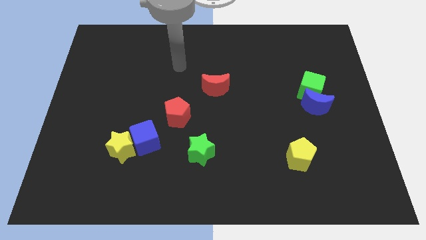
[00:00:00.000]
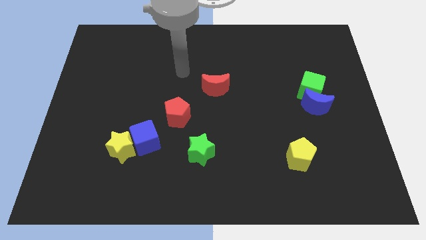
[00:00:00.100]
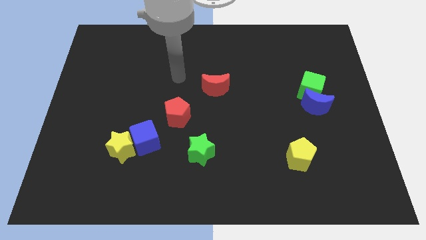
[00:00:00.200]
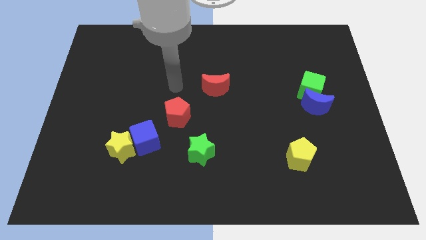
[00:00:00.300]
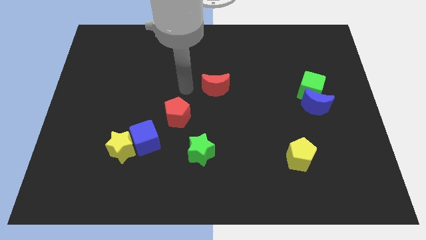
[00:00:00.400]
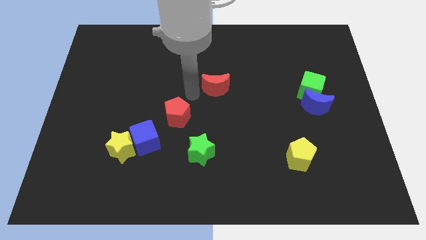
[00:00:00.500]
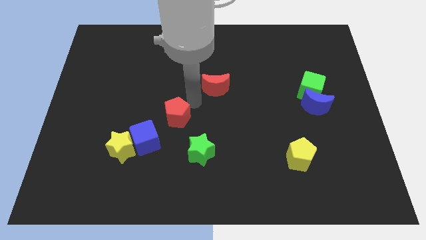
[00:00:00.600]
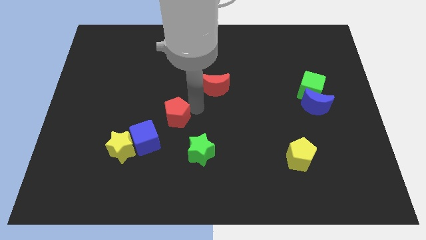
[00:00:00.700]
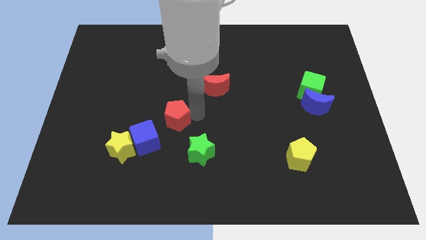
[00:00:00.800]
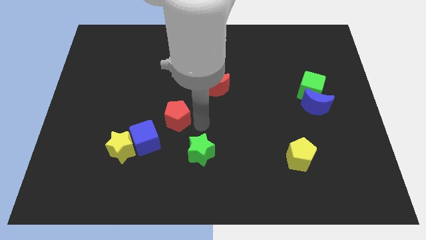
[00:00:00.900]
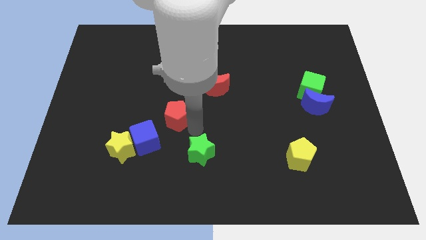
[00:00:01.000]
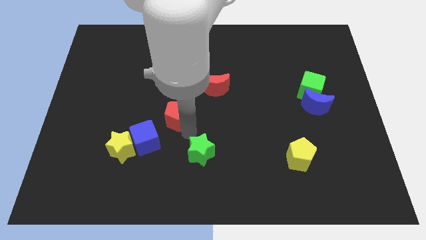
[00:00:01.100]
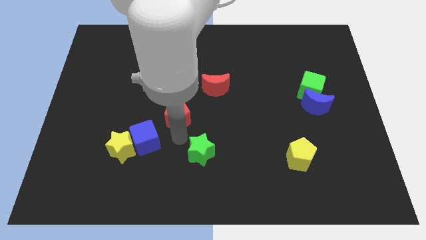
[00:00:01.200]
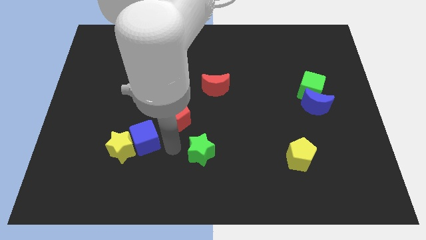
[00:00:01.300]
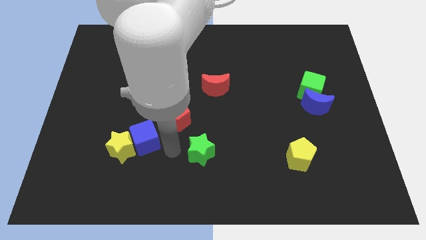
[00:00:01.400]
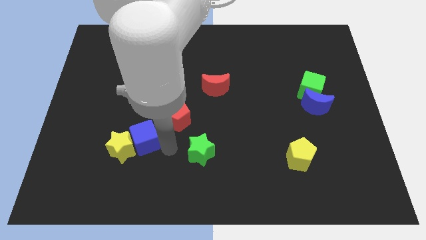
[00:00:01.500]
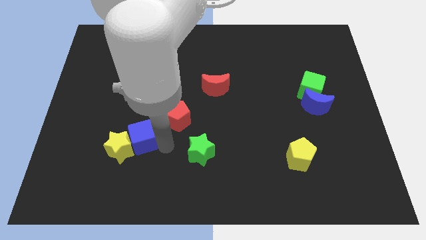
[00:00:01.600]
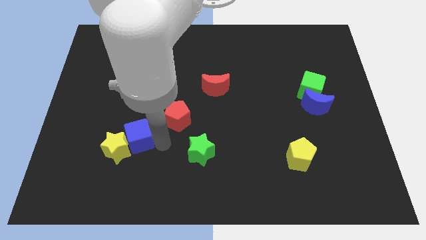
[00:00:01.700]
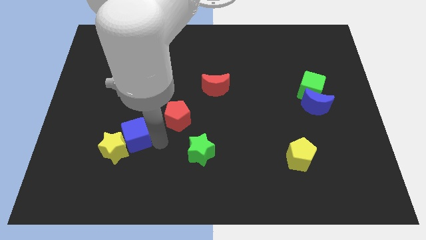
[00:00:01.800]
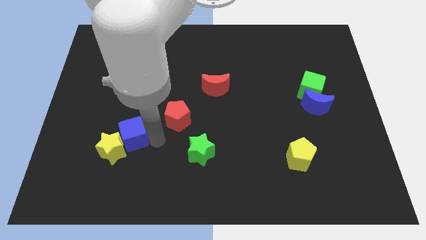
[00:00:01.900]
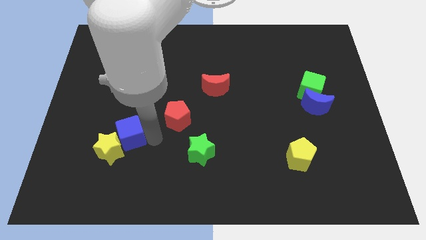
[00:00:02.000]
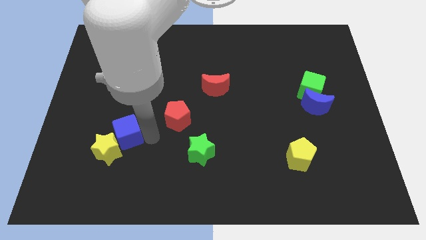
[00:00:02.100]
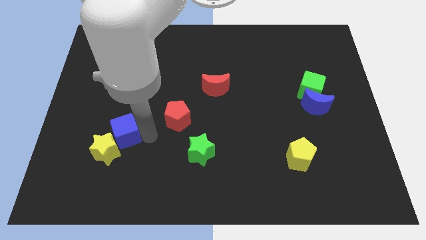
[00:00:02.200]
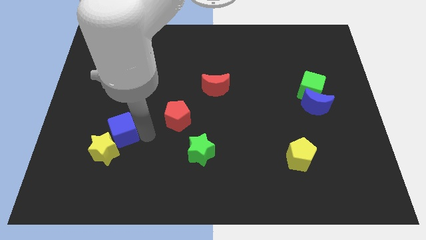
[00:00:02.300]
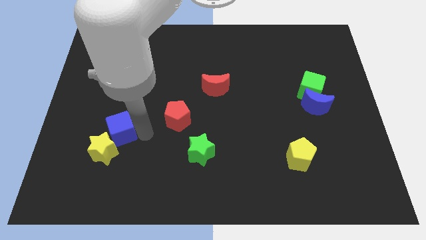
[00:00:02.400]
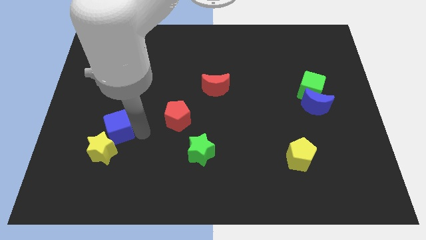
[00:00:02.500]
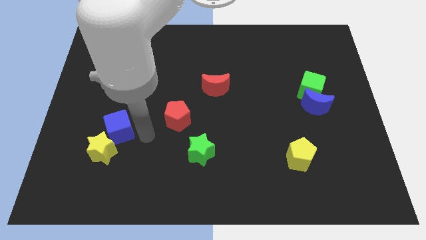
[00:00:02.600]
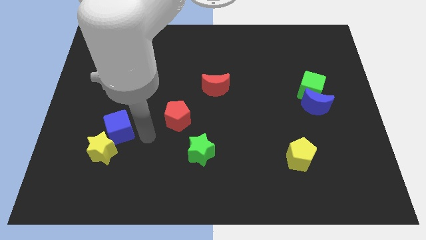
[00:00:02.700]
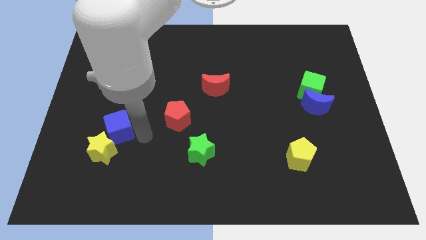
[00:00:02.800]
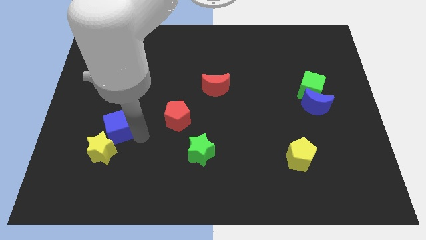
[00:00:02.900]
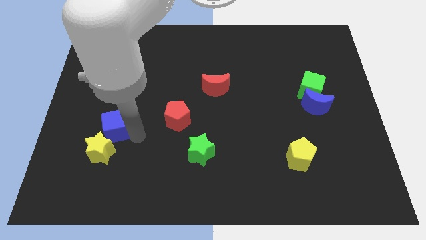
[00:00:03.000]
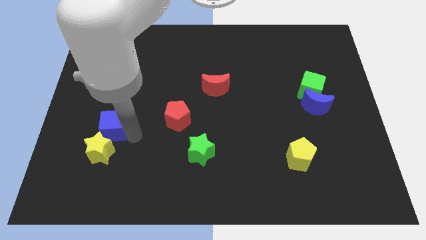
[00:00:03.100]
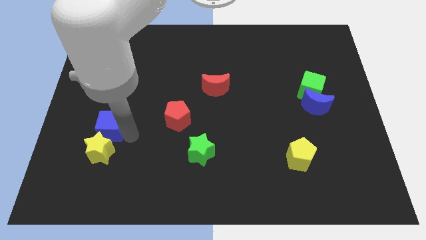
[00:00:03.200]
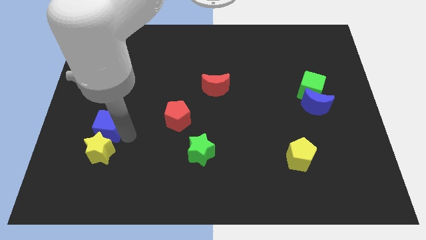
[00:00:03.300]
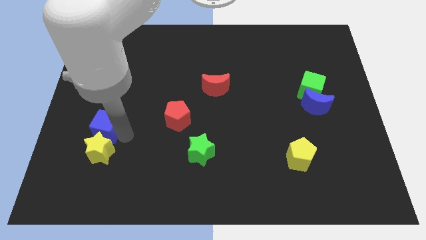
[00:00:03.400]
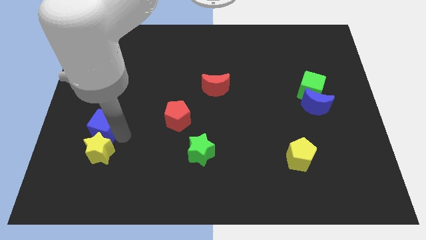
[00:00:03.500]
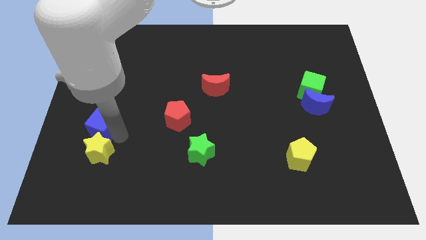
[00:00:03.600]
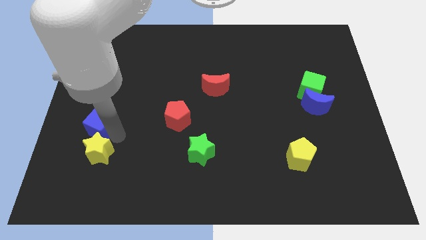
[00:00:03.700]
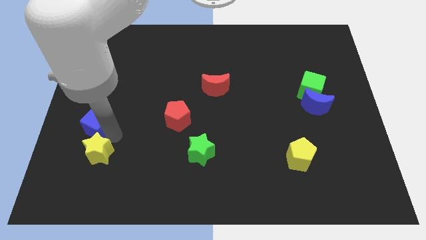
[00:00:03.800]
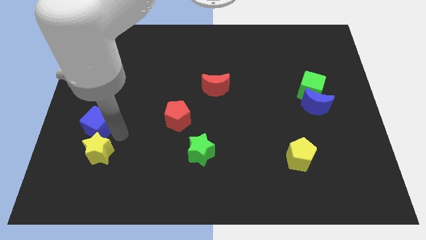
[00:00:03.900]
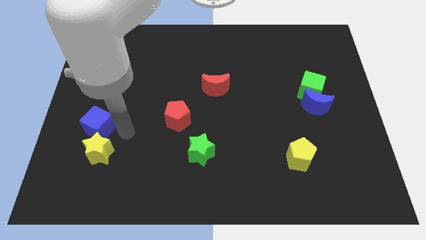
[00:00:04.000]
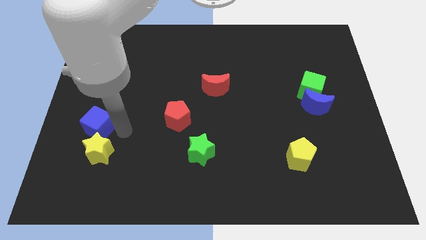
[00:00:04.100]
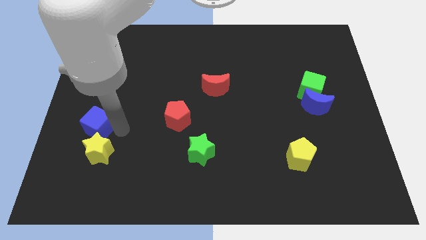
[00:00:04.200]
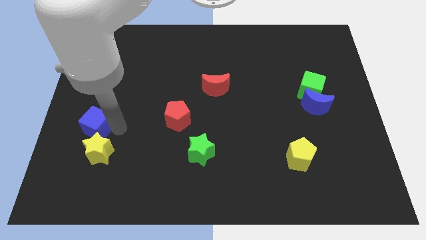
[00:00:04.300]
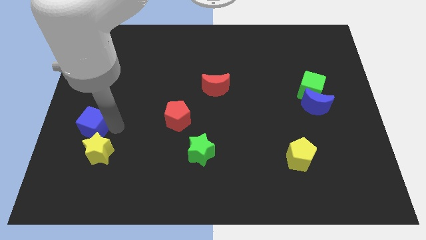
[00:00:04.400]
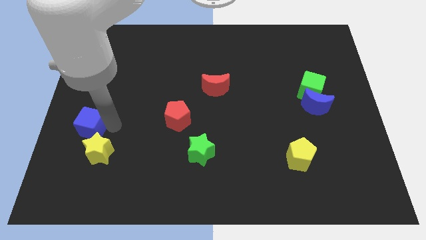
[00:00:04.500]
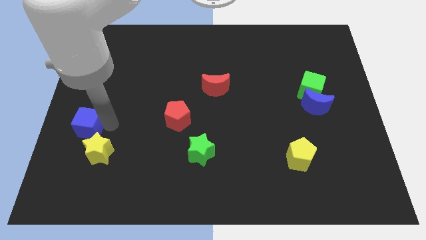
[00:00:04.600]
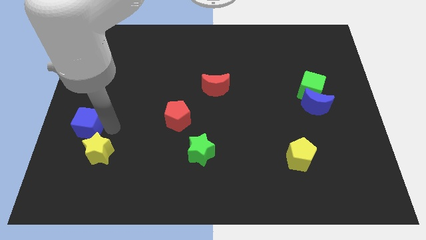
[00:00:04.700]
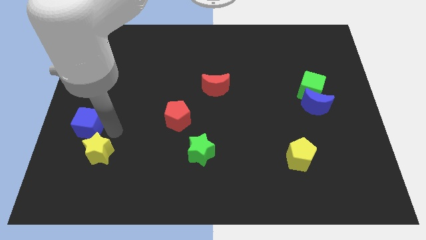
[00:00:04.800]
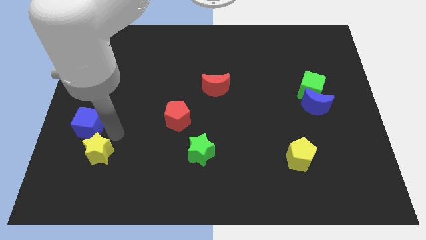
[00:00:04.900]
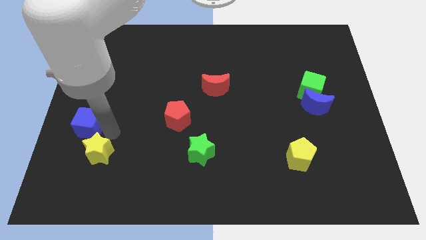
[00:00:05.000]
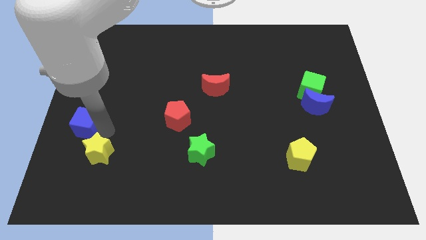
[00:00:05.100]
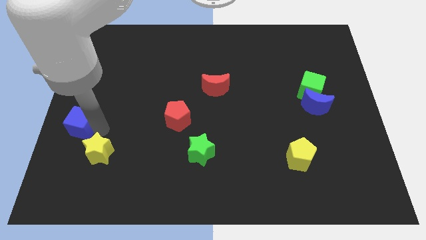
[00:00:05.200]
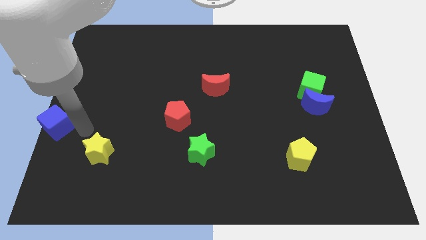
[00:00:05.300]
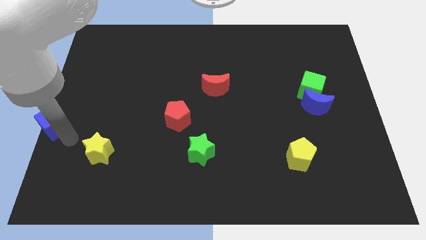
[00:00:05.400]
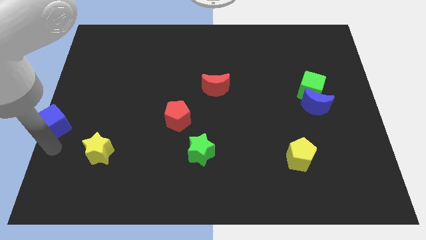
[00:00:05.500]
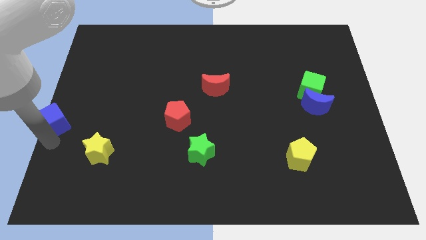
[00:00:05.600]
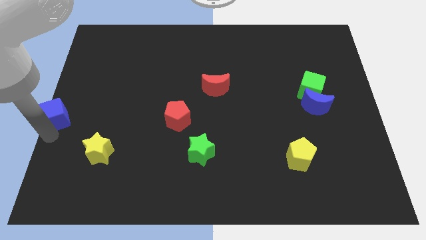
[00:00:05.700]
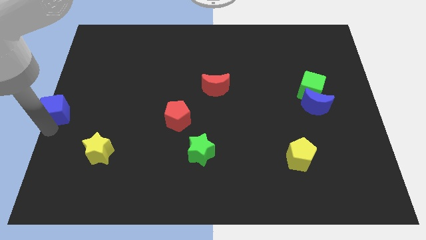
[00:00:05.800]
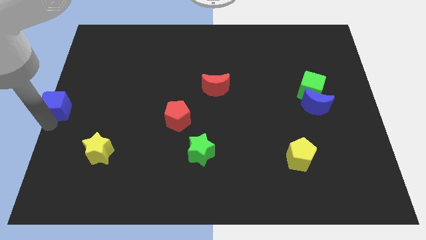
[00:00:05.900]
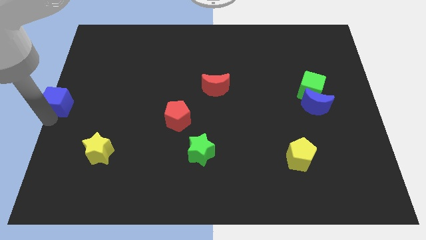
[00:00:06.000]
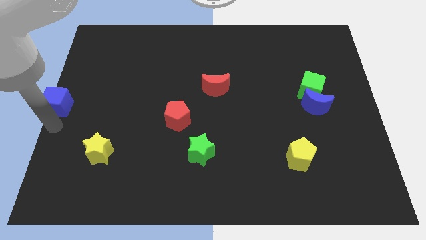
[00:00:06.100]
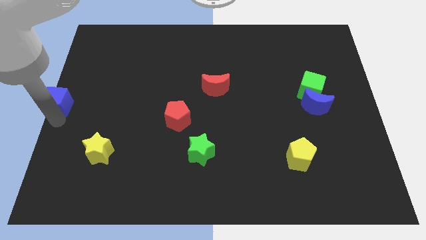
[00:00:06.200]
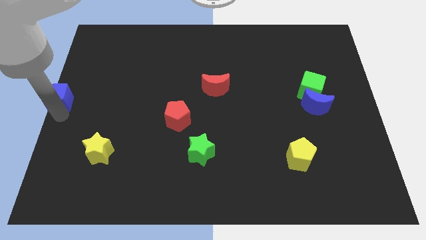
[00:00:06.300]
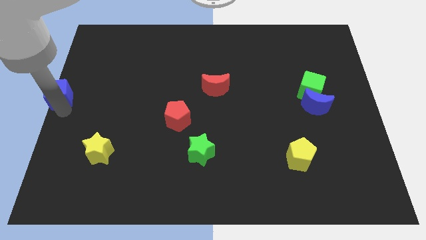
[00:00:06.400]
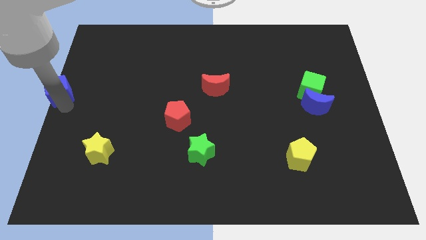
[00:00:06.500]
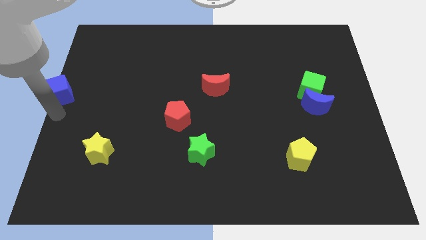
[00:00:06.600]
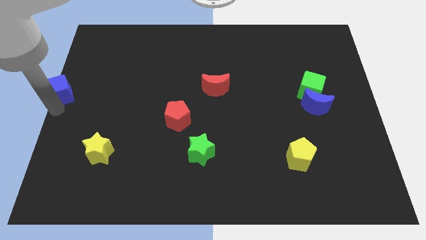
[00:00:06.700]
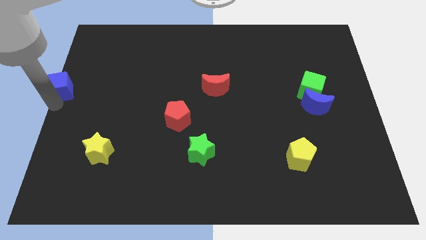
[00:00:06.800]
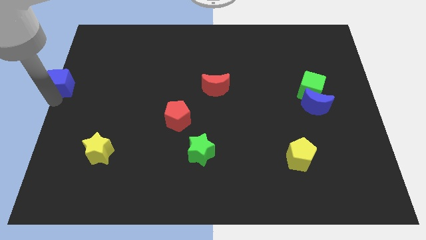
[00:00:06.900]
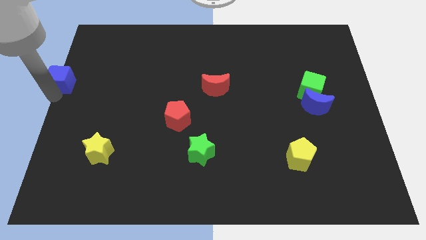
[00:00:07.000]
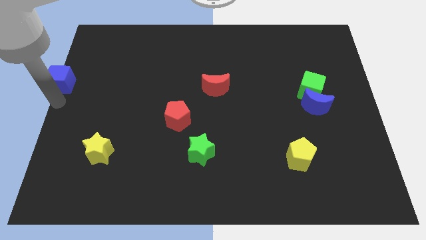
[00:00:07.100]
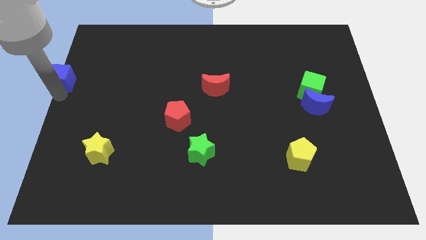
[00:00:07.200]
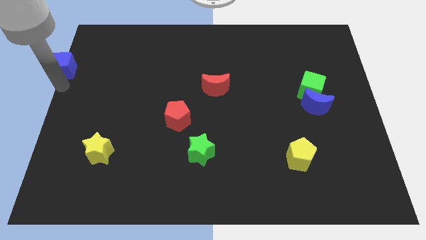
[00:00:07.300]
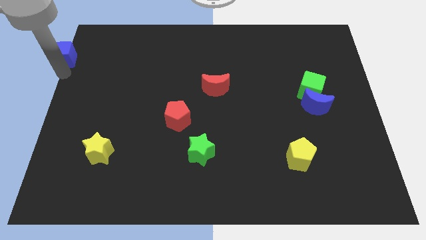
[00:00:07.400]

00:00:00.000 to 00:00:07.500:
move the blue cube to the top left corner
